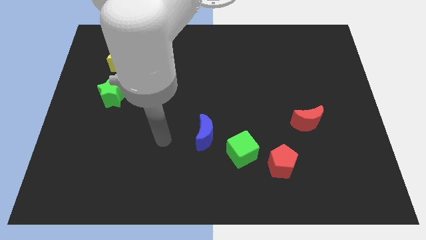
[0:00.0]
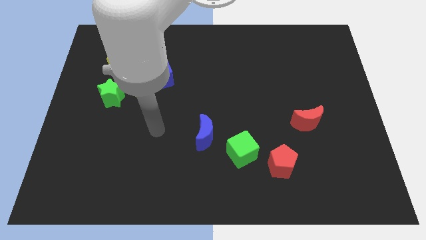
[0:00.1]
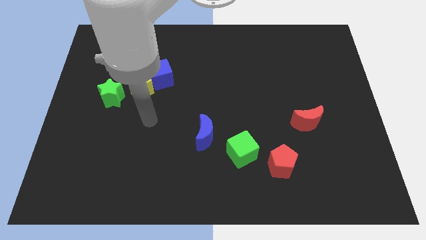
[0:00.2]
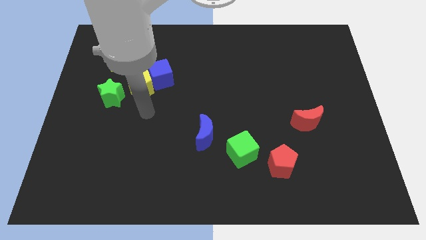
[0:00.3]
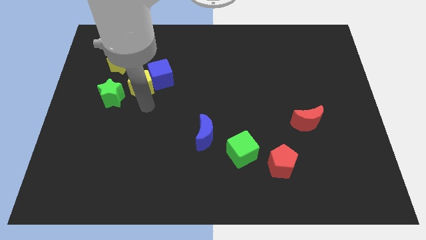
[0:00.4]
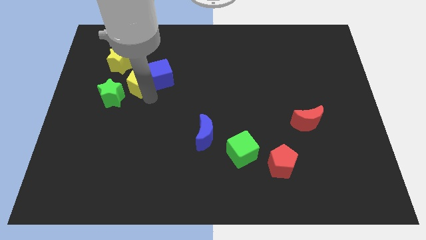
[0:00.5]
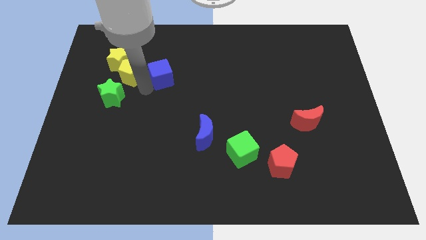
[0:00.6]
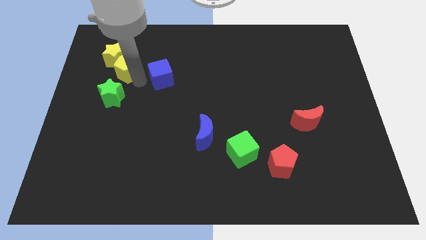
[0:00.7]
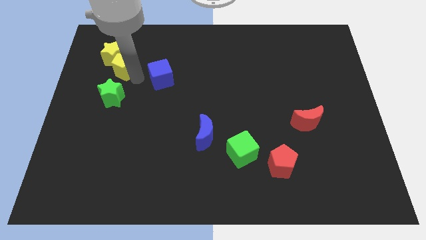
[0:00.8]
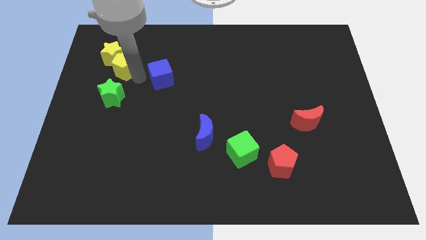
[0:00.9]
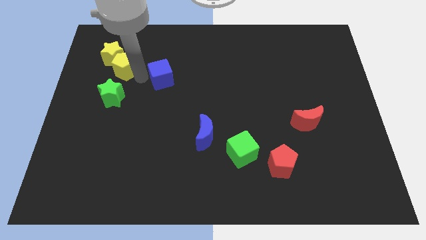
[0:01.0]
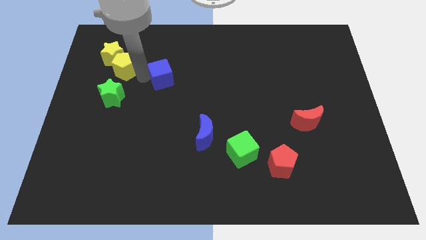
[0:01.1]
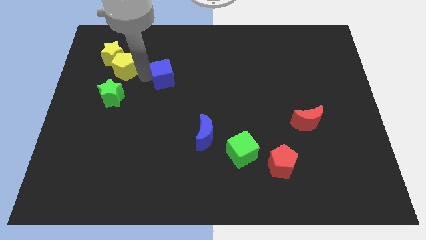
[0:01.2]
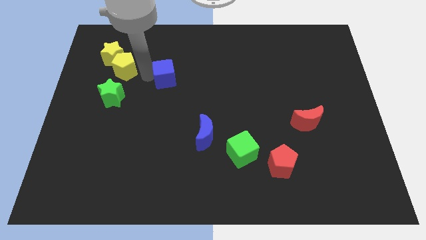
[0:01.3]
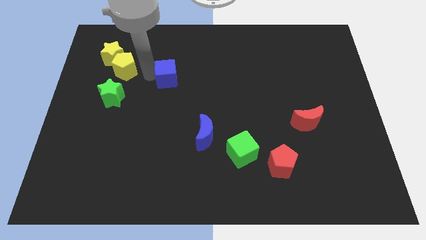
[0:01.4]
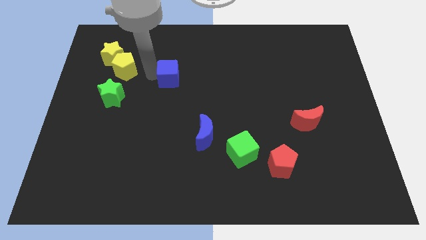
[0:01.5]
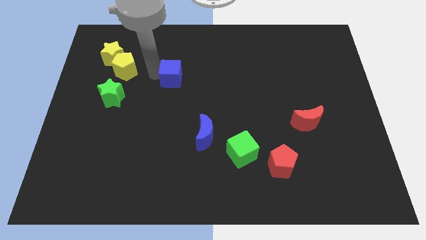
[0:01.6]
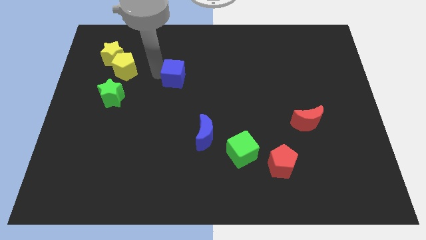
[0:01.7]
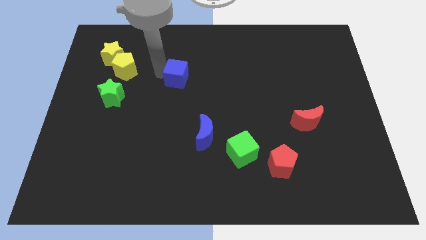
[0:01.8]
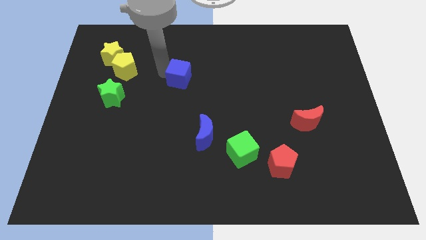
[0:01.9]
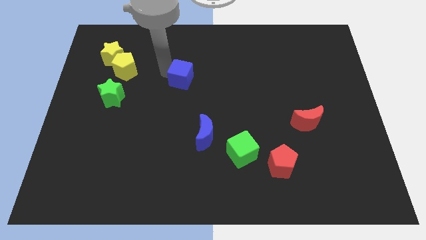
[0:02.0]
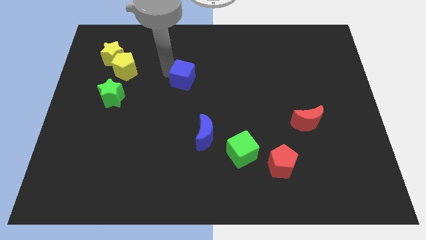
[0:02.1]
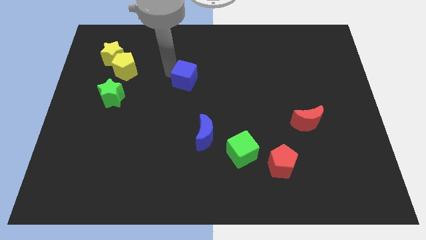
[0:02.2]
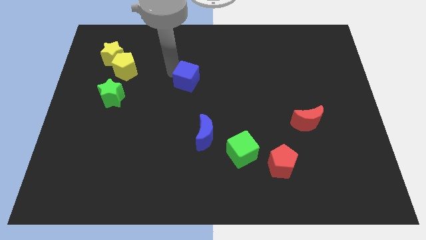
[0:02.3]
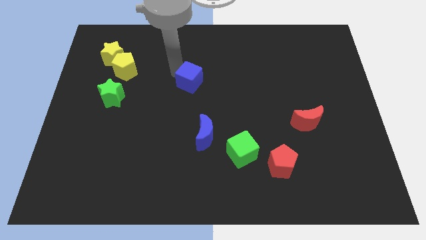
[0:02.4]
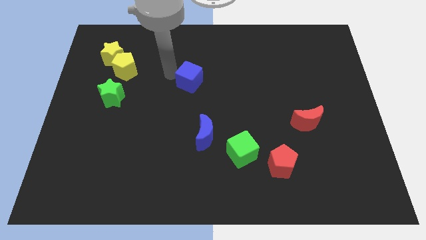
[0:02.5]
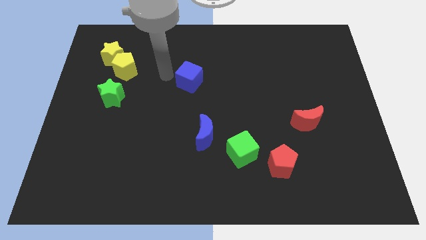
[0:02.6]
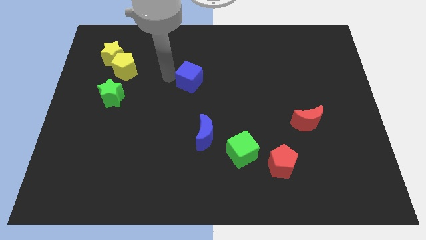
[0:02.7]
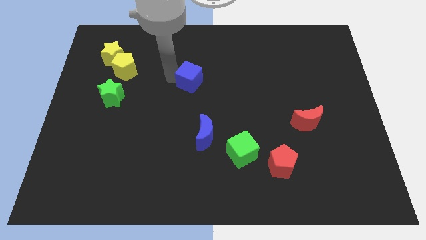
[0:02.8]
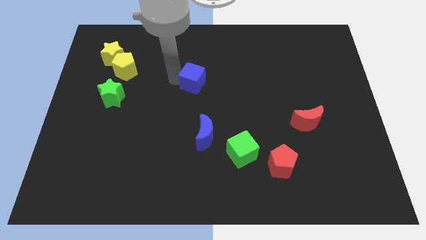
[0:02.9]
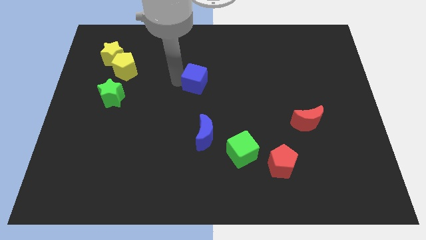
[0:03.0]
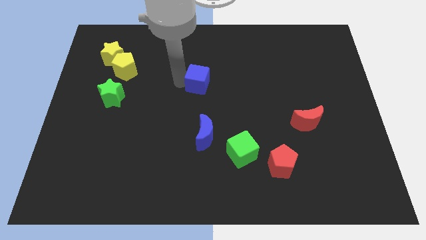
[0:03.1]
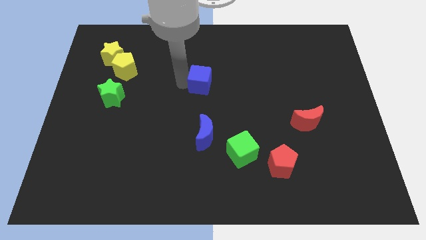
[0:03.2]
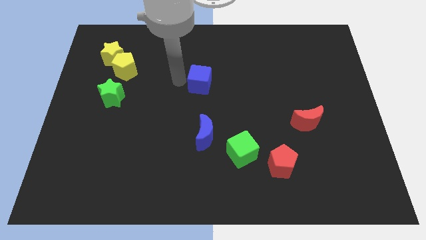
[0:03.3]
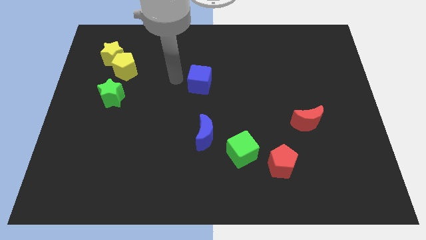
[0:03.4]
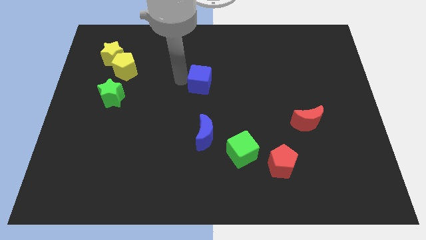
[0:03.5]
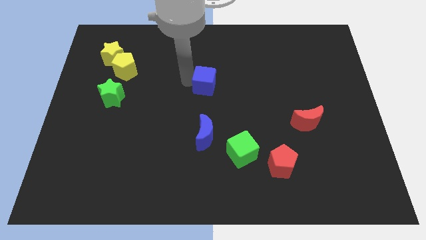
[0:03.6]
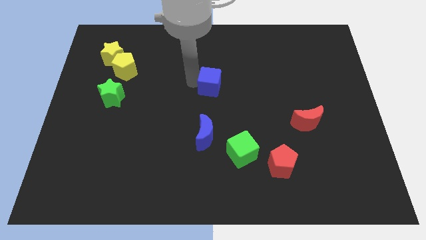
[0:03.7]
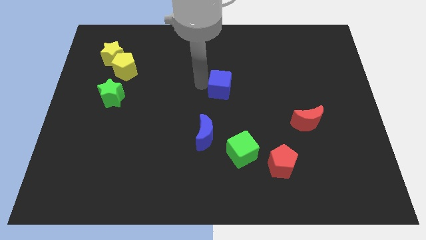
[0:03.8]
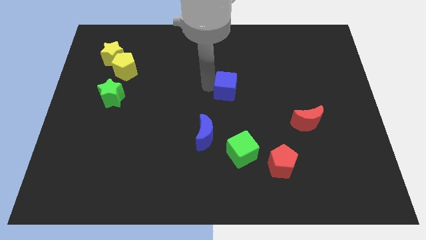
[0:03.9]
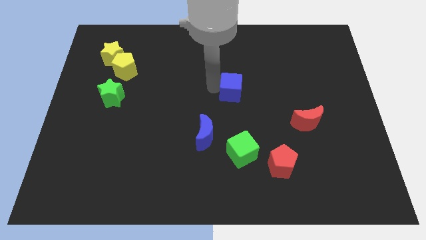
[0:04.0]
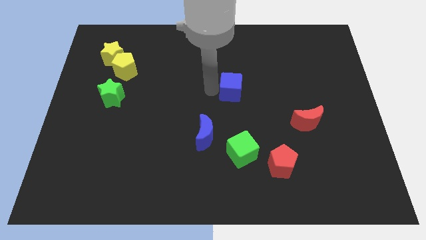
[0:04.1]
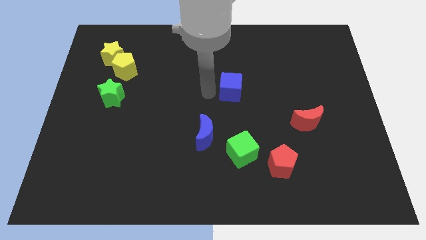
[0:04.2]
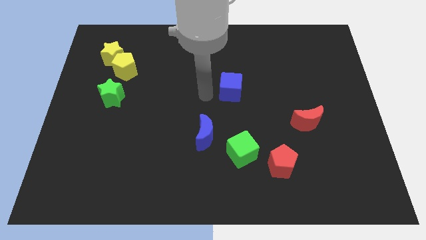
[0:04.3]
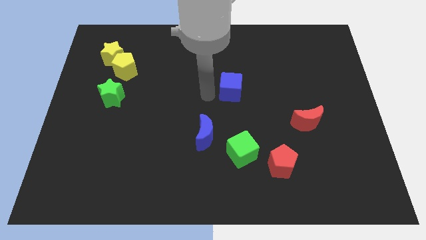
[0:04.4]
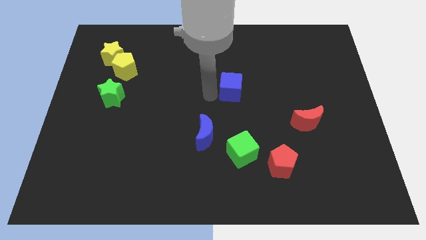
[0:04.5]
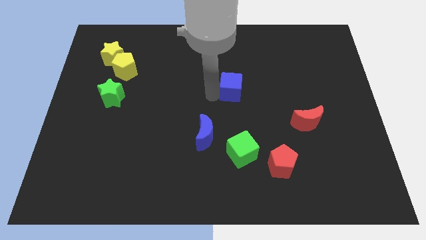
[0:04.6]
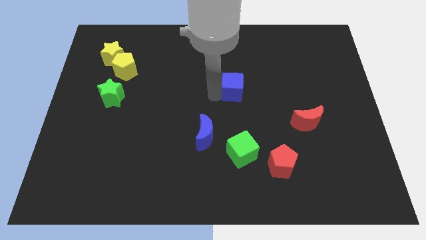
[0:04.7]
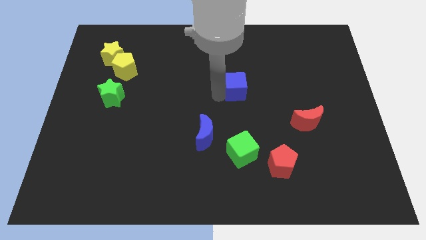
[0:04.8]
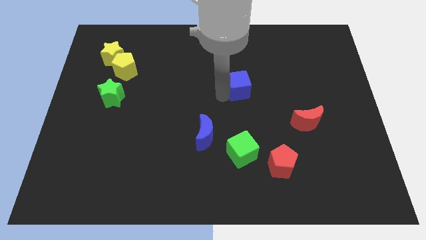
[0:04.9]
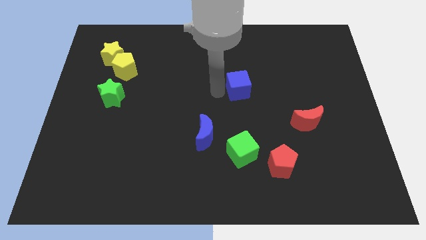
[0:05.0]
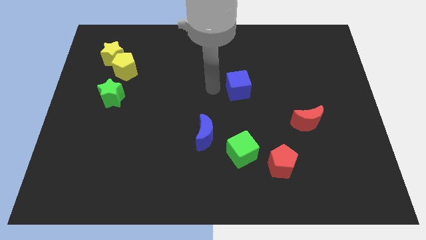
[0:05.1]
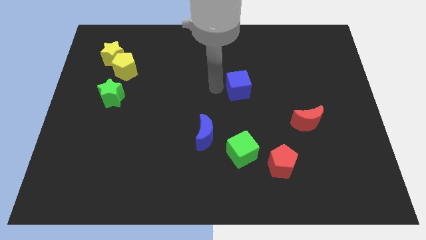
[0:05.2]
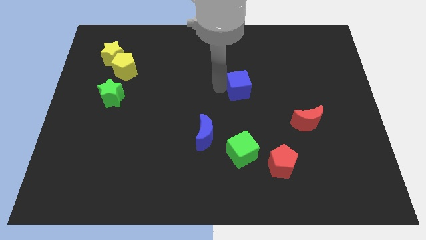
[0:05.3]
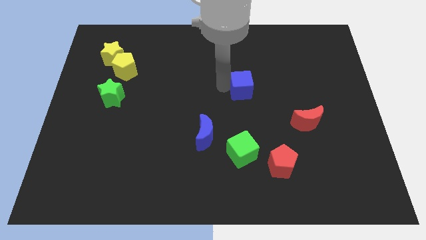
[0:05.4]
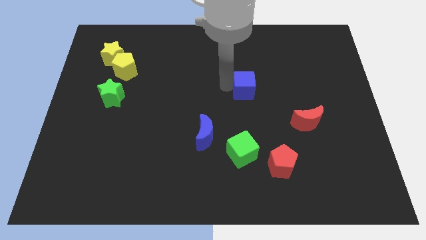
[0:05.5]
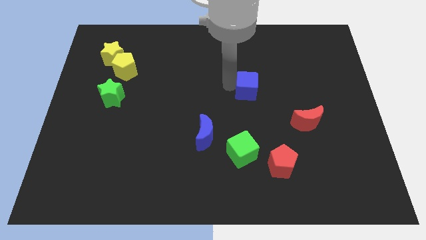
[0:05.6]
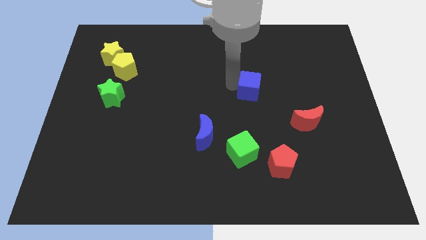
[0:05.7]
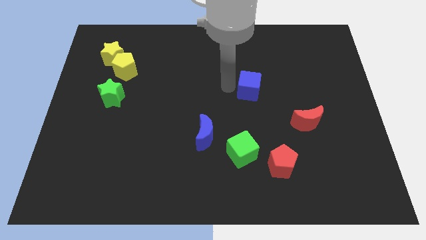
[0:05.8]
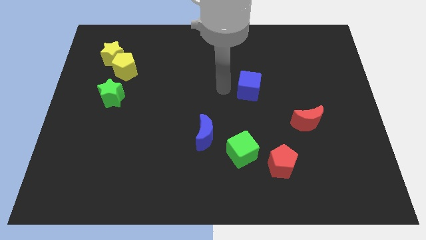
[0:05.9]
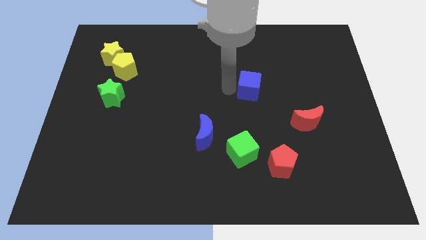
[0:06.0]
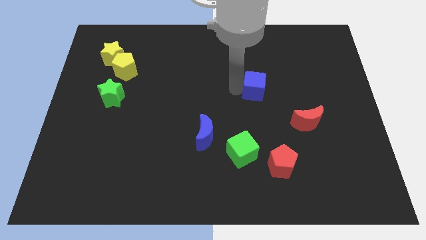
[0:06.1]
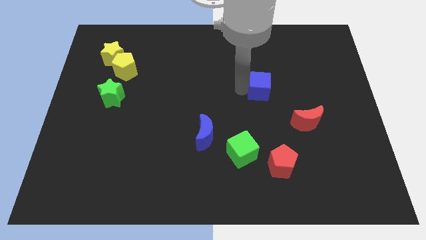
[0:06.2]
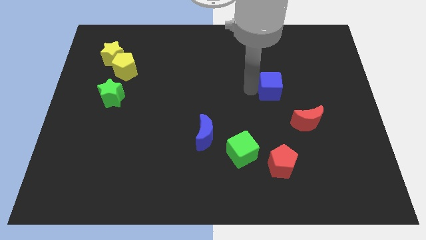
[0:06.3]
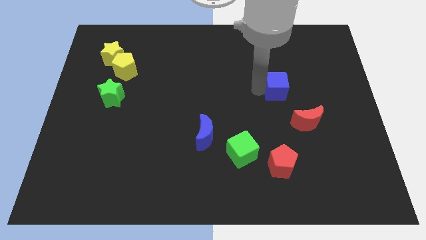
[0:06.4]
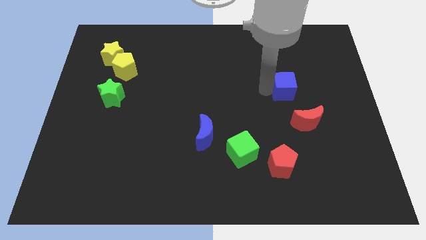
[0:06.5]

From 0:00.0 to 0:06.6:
move the blue cube to the top side of the red moon

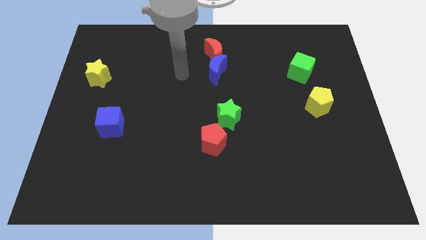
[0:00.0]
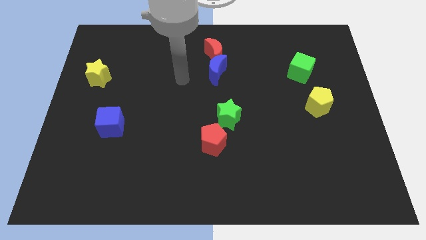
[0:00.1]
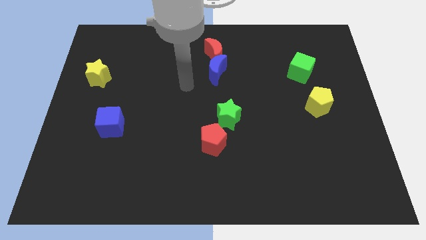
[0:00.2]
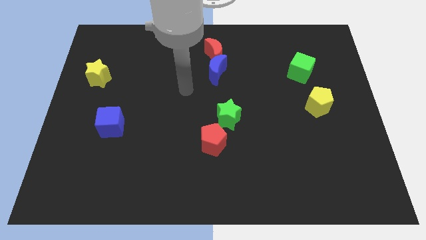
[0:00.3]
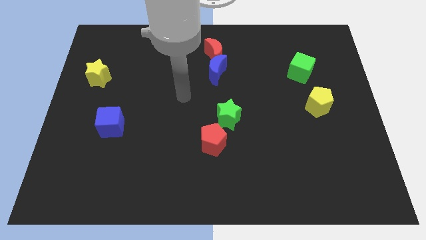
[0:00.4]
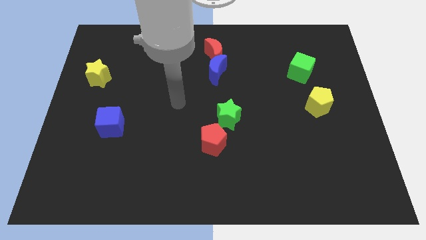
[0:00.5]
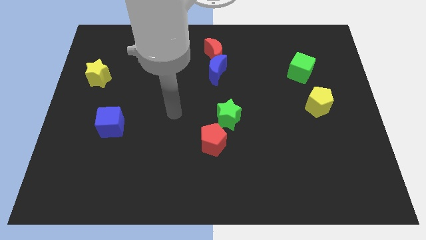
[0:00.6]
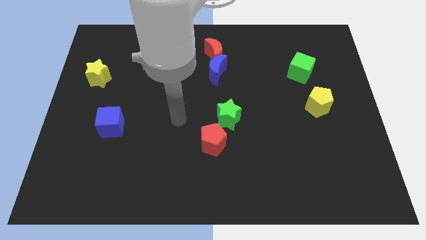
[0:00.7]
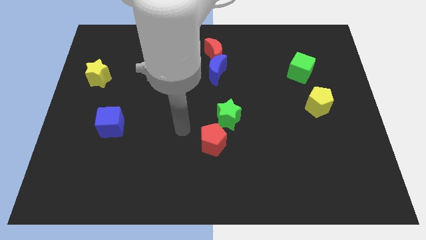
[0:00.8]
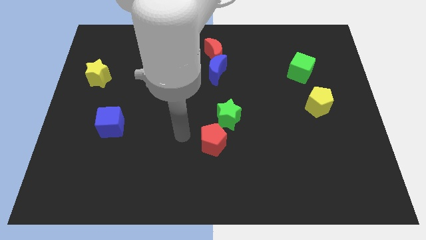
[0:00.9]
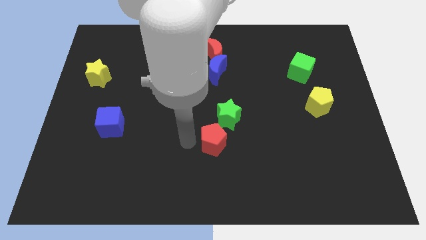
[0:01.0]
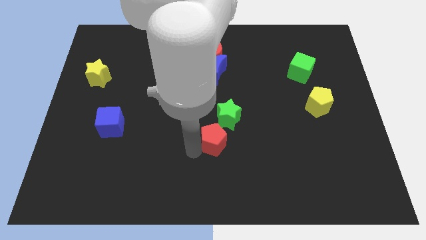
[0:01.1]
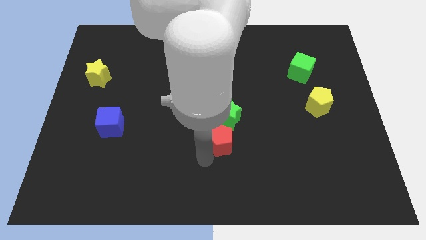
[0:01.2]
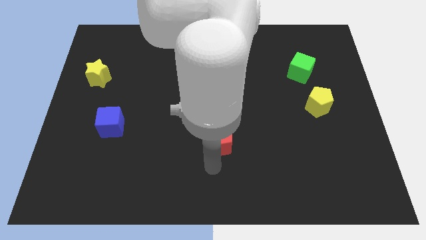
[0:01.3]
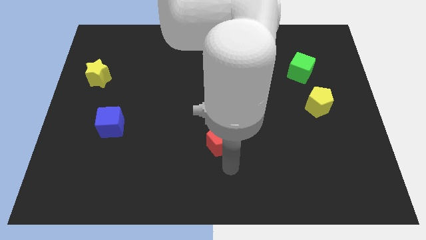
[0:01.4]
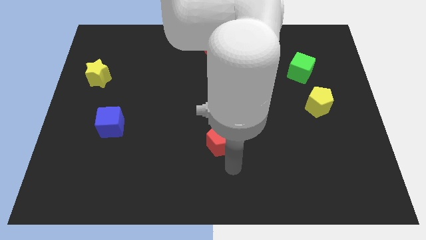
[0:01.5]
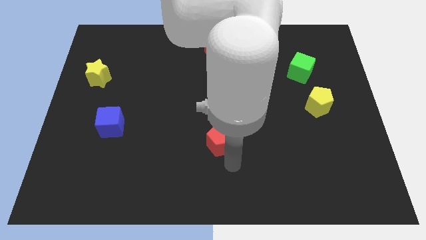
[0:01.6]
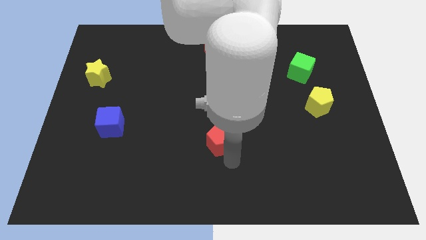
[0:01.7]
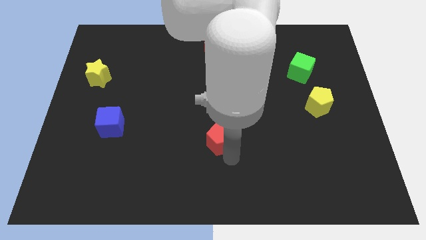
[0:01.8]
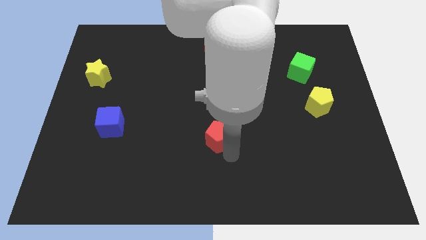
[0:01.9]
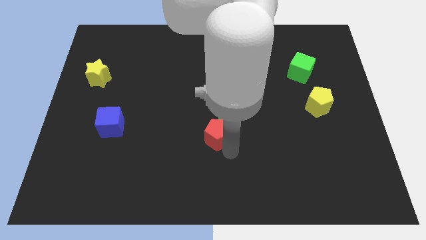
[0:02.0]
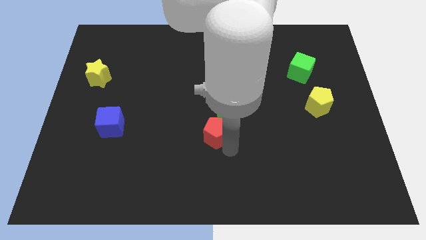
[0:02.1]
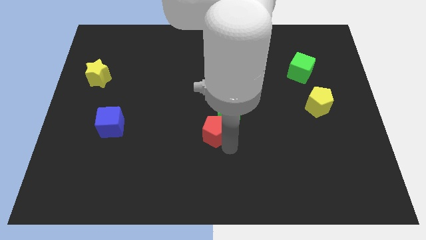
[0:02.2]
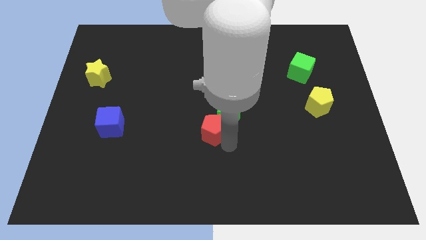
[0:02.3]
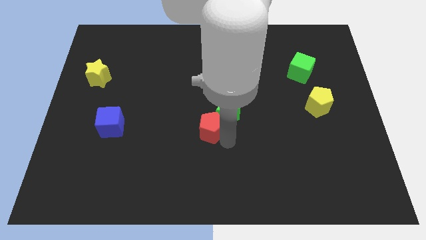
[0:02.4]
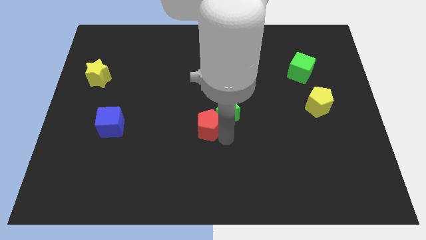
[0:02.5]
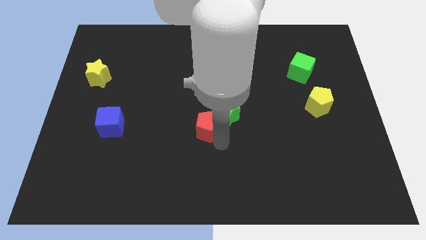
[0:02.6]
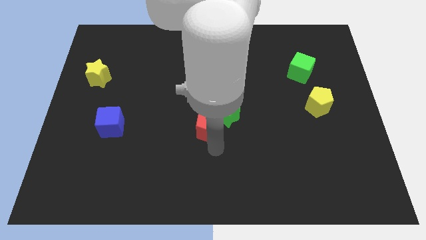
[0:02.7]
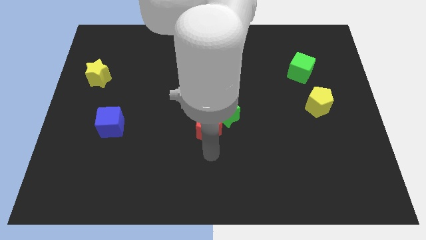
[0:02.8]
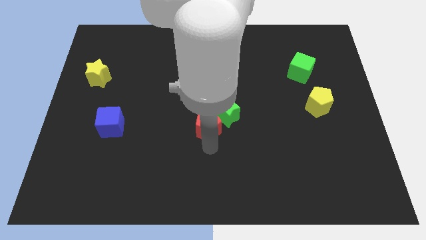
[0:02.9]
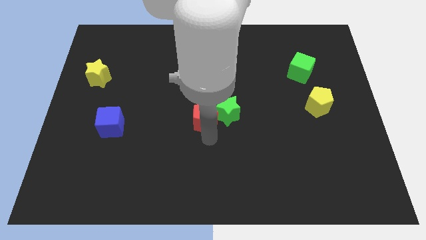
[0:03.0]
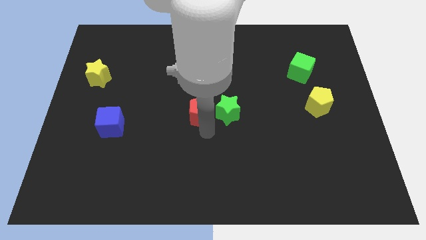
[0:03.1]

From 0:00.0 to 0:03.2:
move the red pentagon to the top left side of the green star
